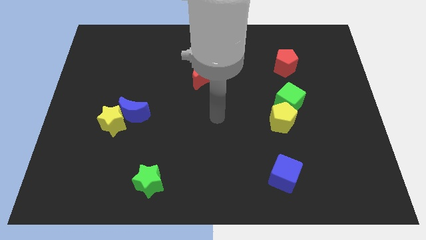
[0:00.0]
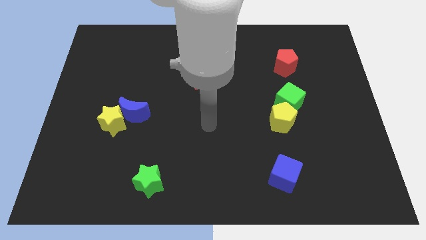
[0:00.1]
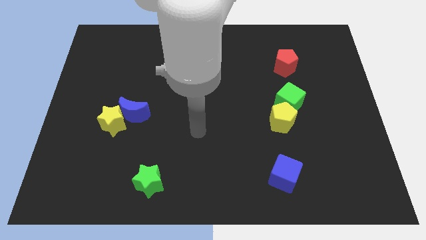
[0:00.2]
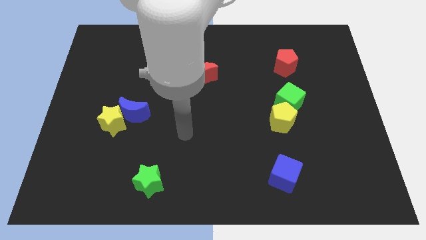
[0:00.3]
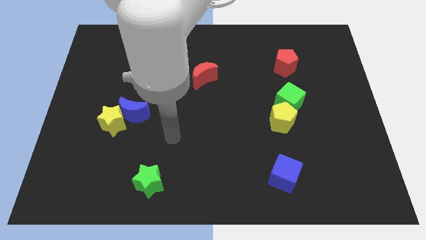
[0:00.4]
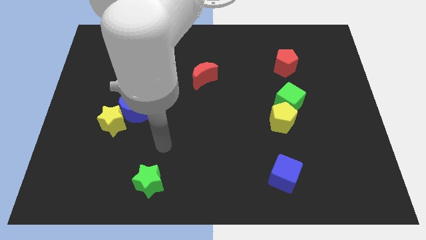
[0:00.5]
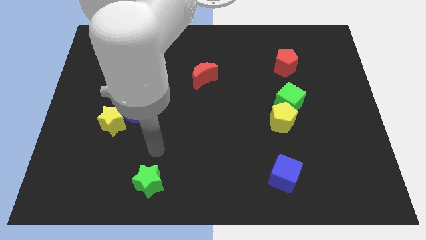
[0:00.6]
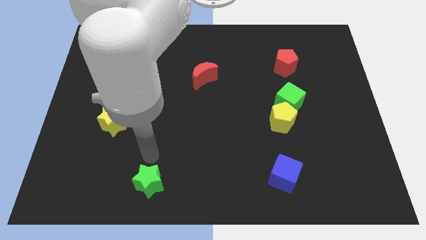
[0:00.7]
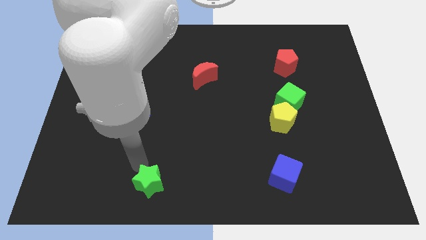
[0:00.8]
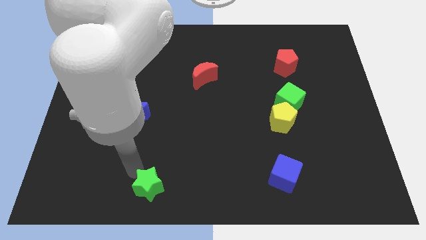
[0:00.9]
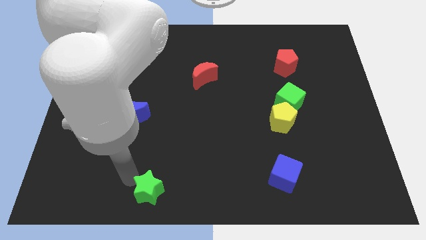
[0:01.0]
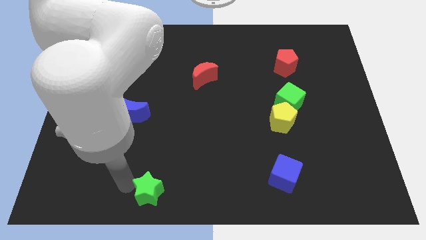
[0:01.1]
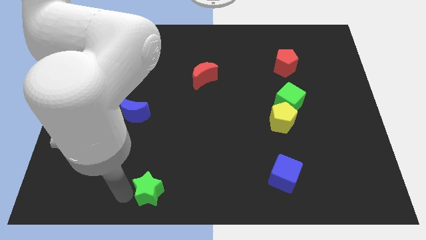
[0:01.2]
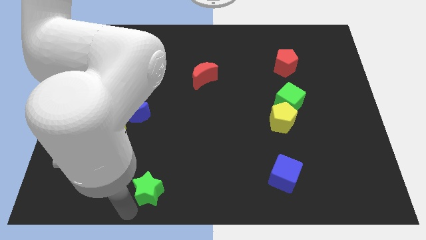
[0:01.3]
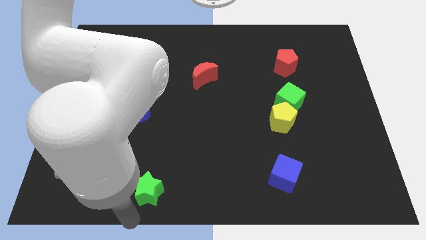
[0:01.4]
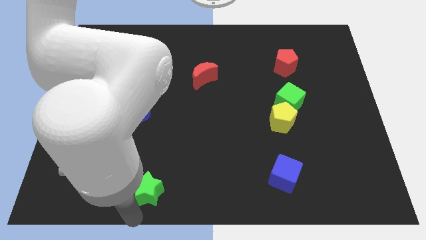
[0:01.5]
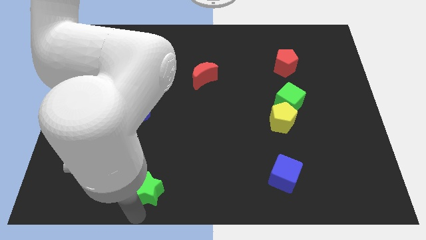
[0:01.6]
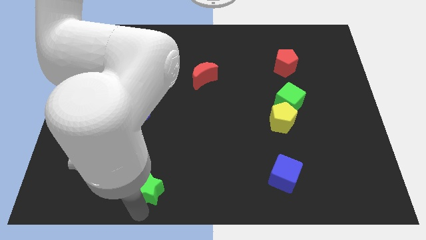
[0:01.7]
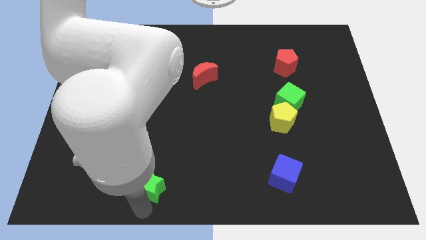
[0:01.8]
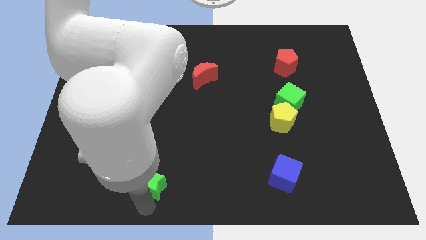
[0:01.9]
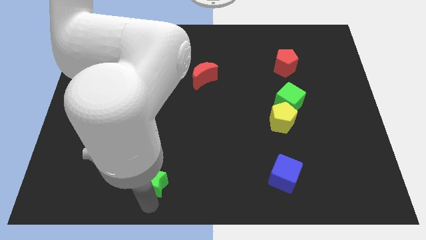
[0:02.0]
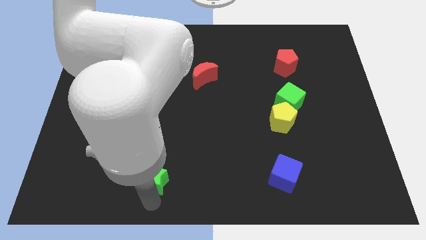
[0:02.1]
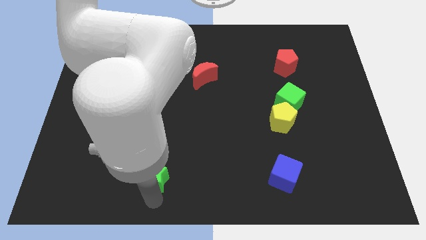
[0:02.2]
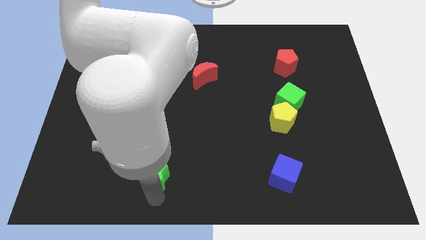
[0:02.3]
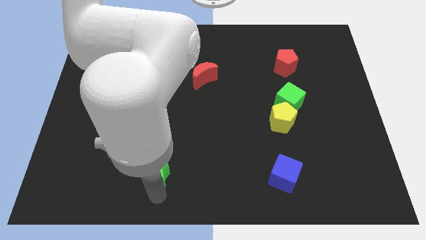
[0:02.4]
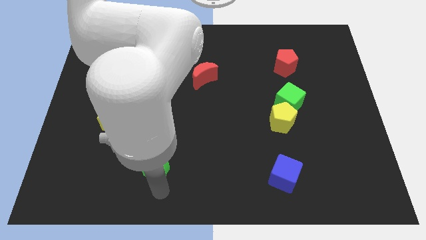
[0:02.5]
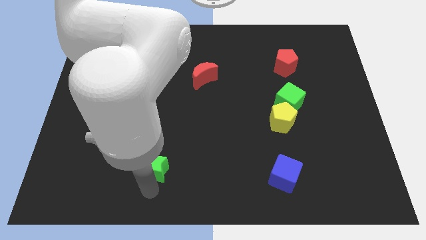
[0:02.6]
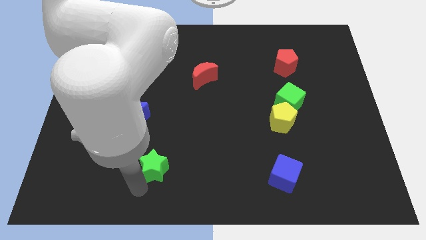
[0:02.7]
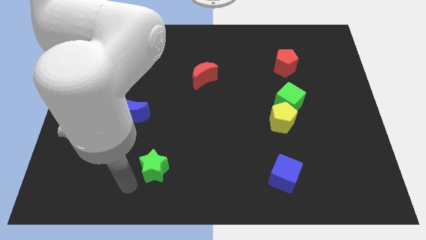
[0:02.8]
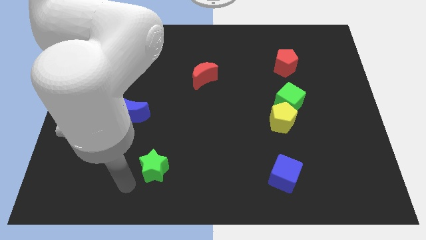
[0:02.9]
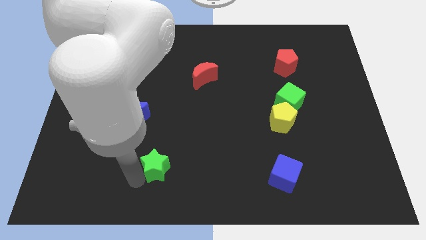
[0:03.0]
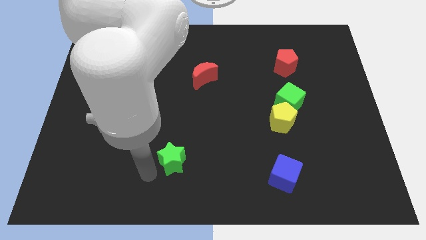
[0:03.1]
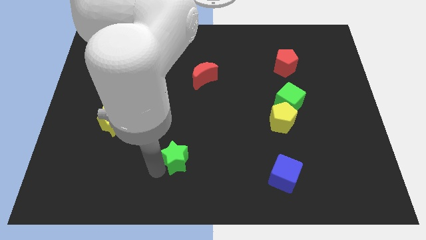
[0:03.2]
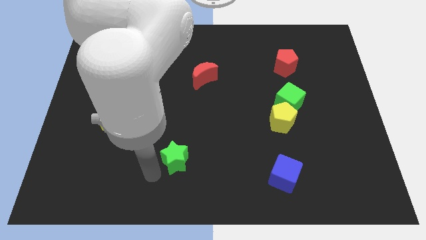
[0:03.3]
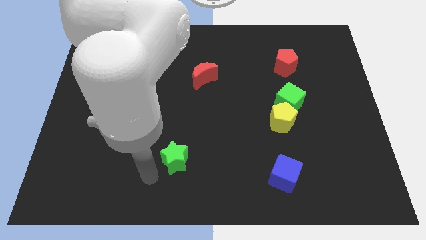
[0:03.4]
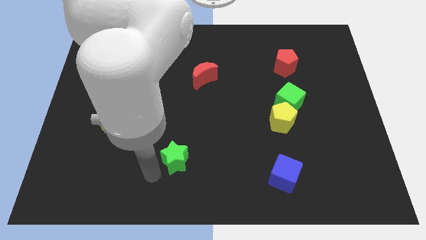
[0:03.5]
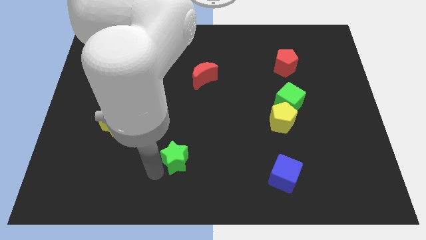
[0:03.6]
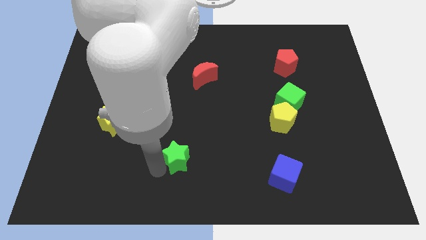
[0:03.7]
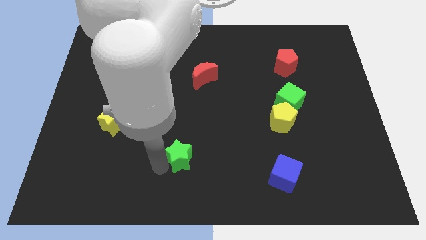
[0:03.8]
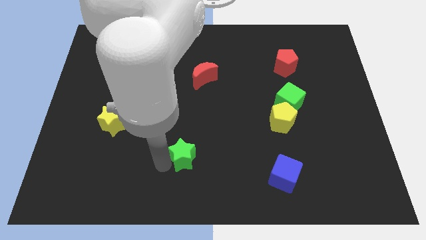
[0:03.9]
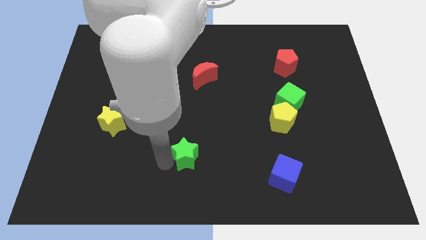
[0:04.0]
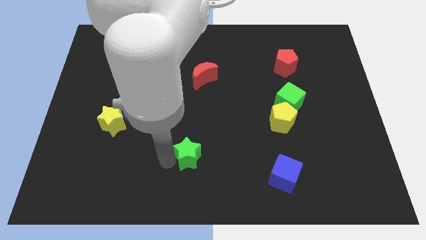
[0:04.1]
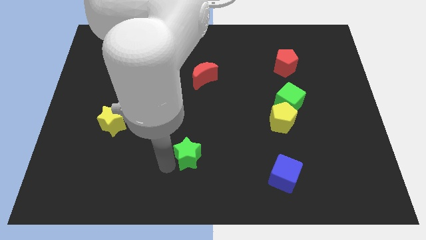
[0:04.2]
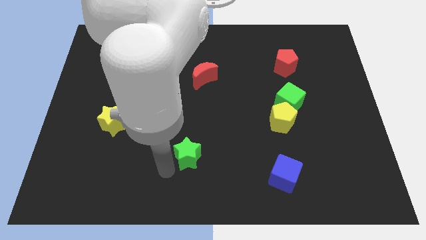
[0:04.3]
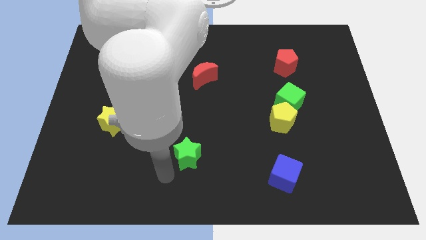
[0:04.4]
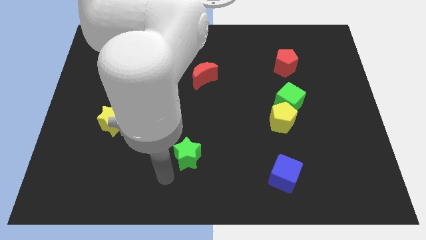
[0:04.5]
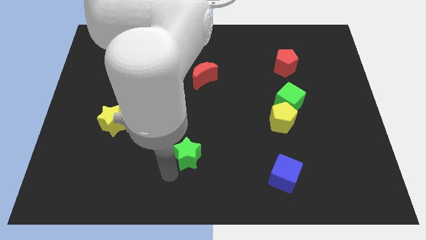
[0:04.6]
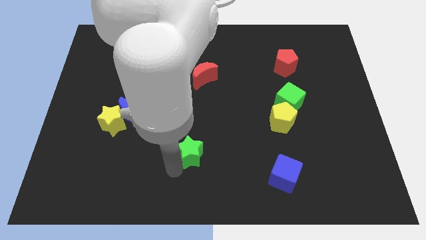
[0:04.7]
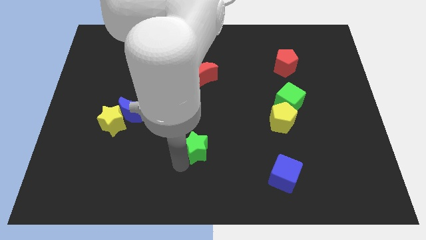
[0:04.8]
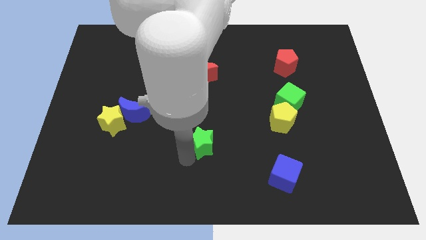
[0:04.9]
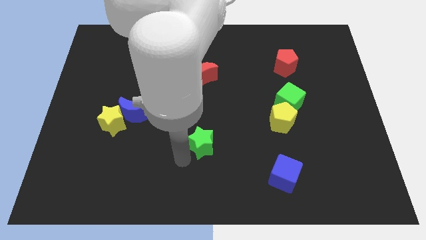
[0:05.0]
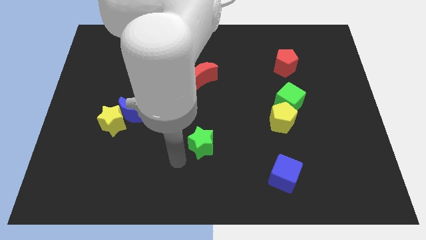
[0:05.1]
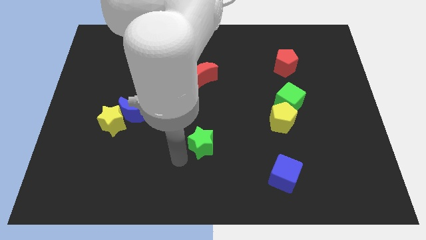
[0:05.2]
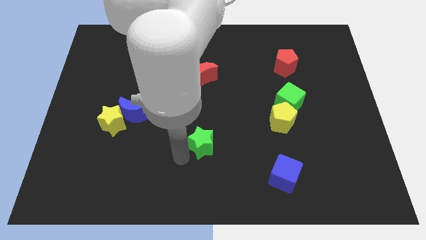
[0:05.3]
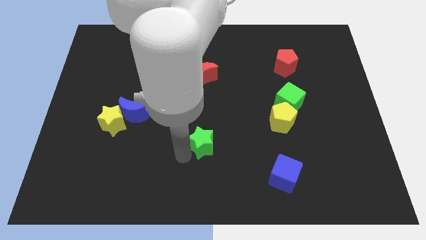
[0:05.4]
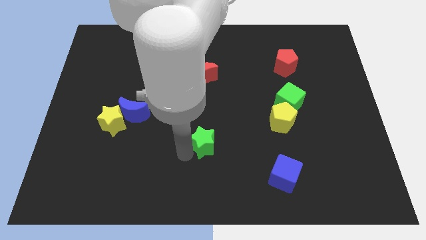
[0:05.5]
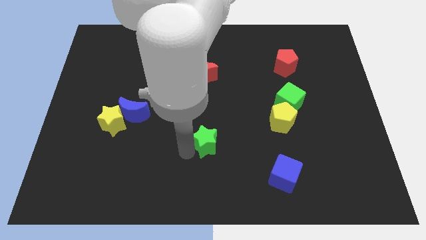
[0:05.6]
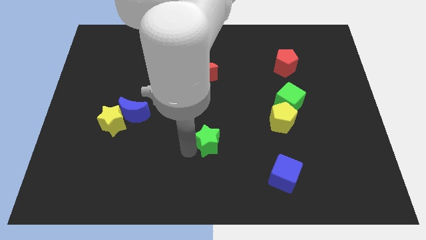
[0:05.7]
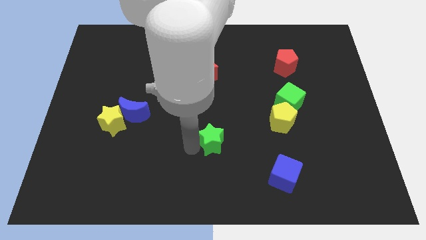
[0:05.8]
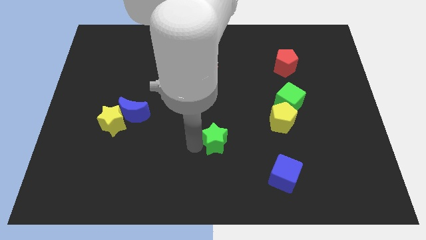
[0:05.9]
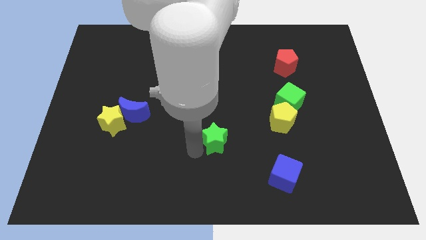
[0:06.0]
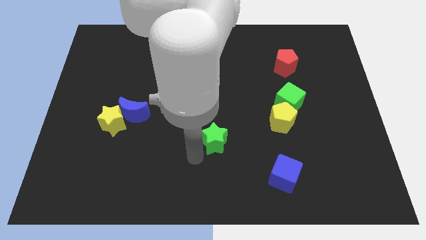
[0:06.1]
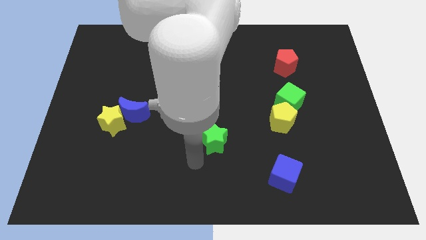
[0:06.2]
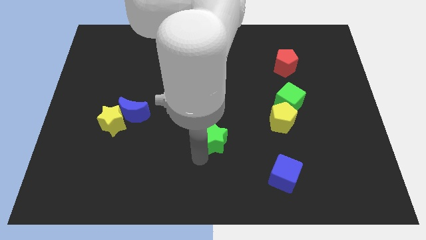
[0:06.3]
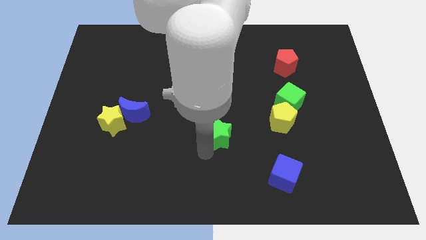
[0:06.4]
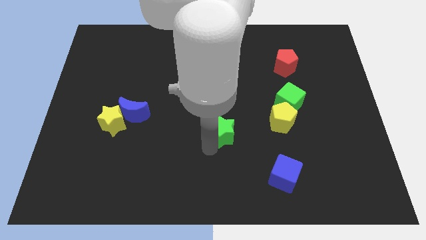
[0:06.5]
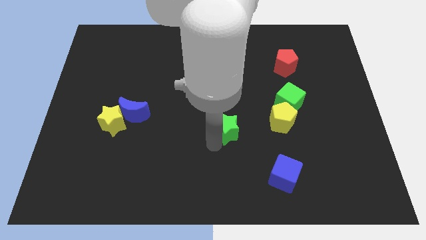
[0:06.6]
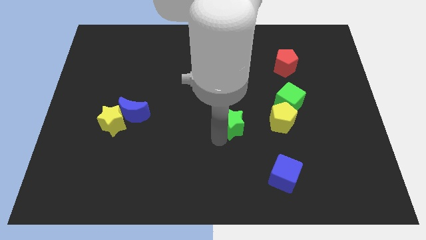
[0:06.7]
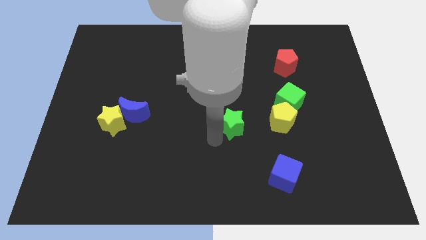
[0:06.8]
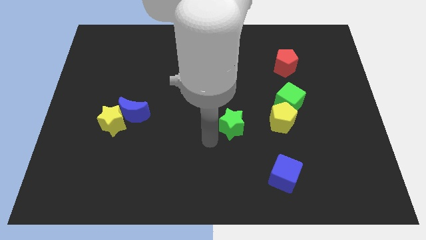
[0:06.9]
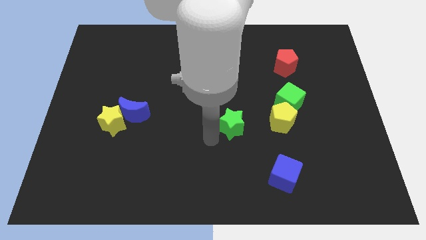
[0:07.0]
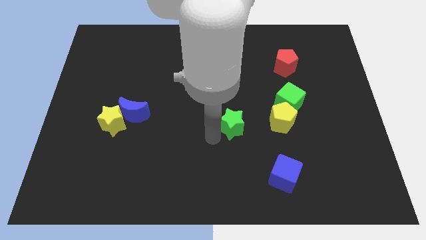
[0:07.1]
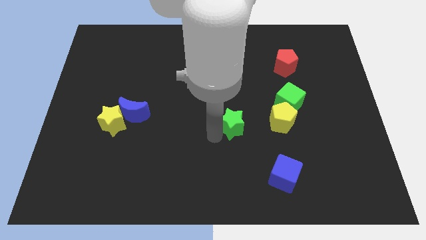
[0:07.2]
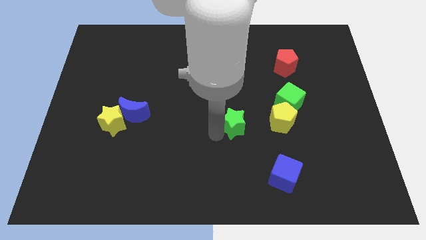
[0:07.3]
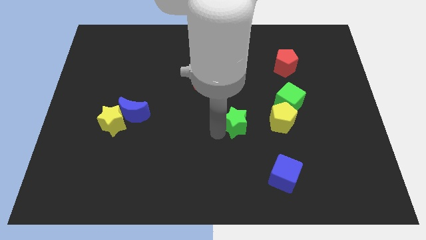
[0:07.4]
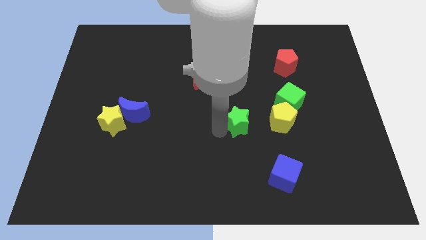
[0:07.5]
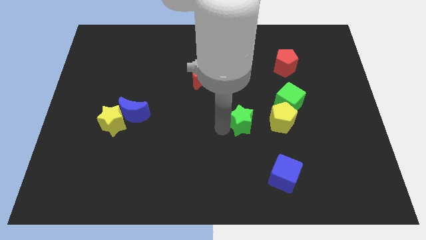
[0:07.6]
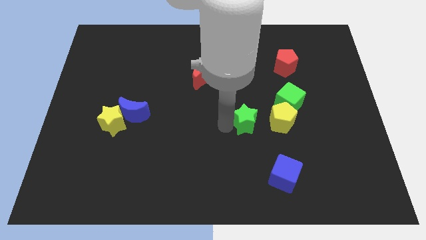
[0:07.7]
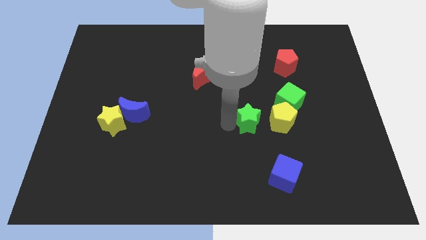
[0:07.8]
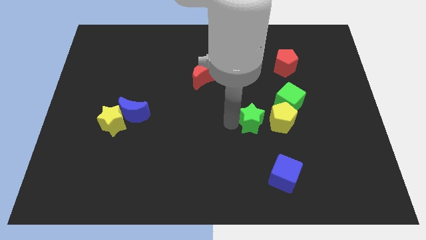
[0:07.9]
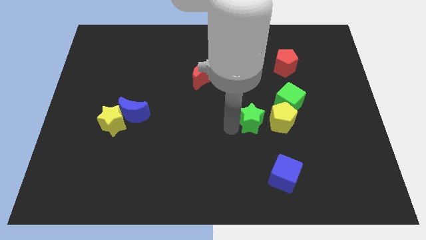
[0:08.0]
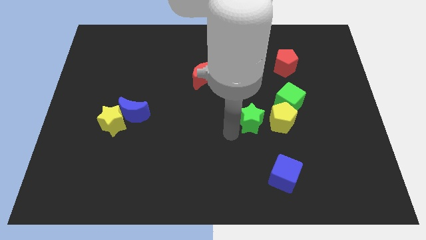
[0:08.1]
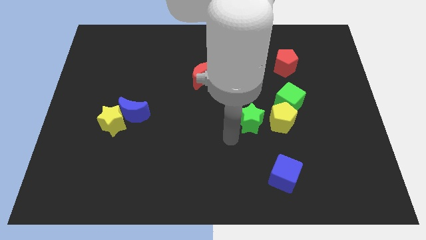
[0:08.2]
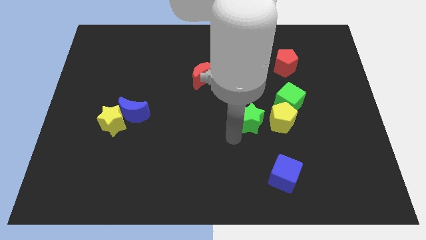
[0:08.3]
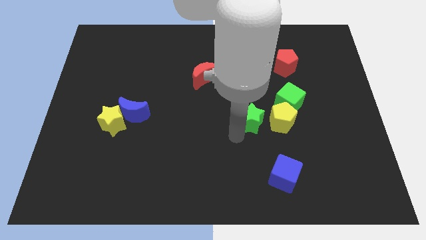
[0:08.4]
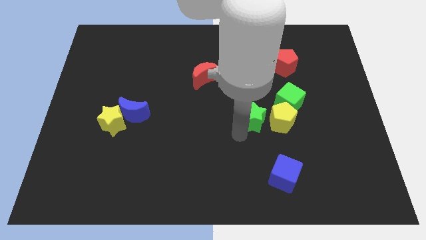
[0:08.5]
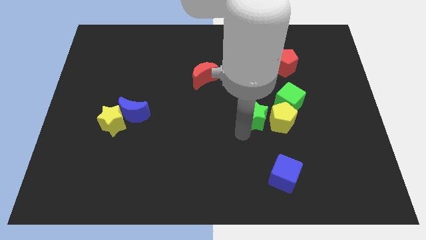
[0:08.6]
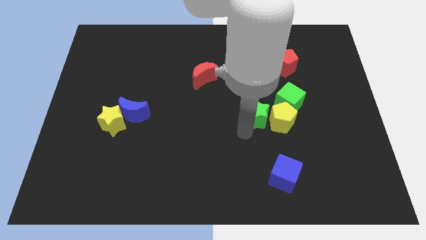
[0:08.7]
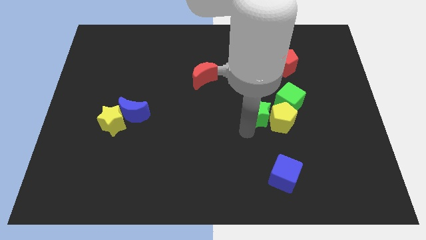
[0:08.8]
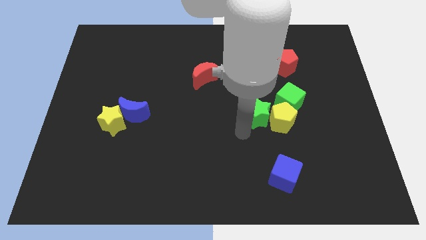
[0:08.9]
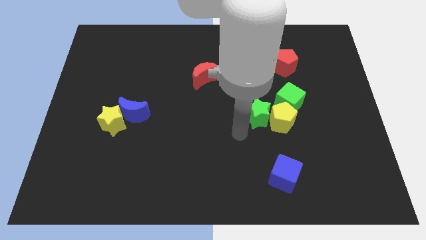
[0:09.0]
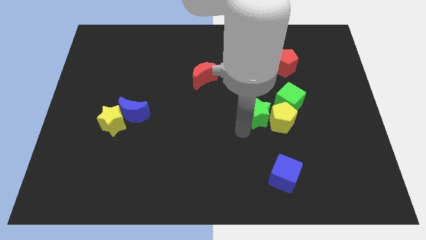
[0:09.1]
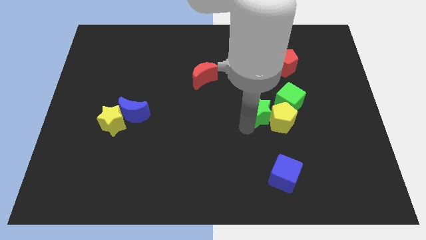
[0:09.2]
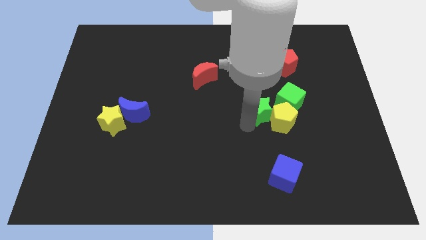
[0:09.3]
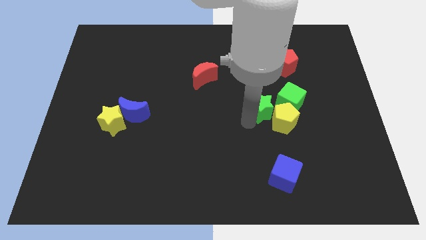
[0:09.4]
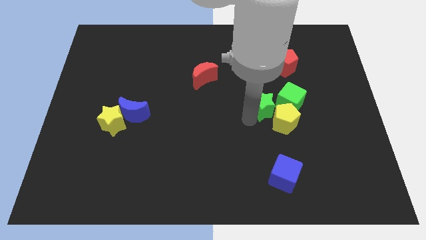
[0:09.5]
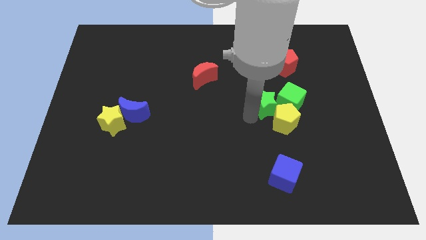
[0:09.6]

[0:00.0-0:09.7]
slide the green star to the green cube
